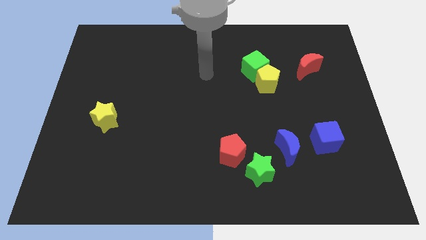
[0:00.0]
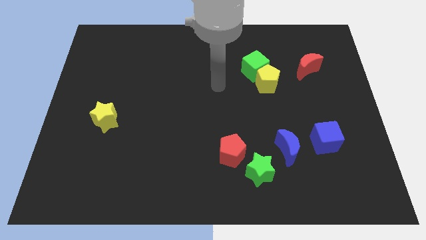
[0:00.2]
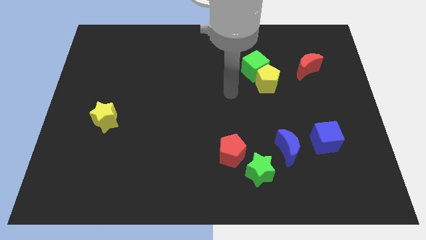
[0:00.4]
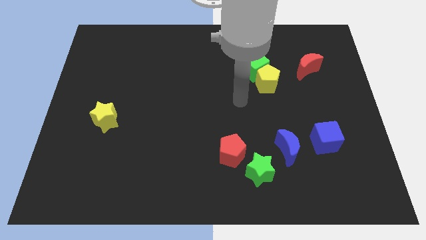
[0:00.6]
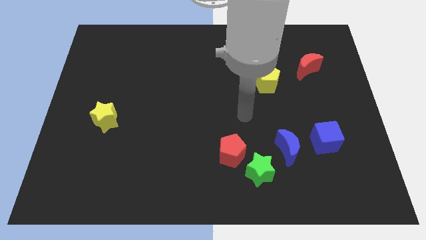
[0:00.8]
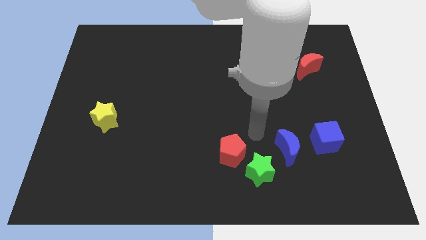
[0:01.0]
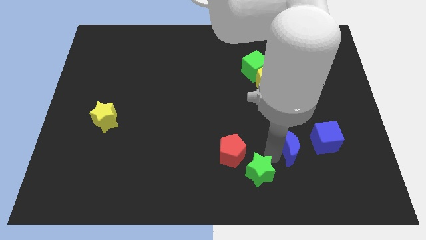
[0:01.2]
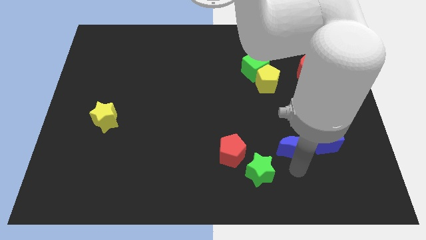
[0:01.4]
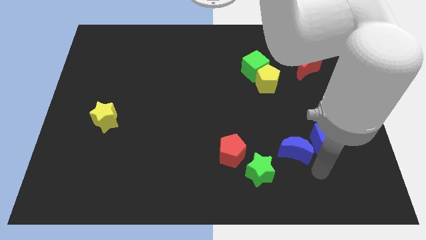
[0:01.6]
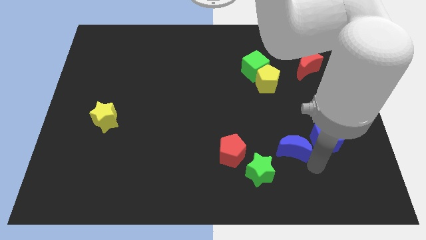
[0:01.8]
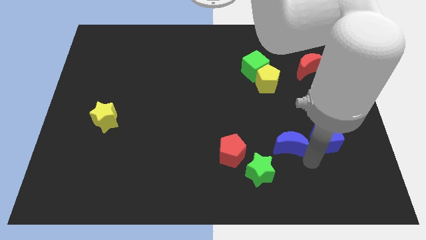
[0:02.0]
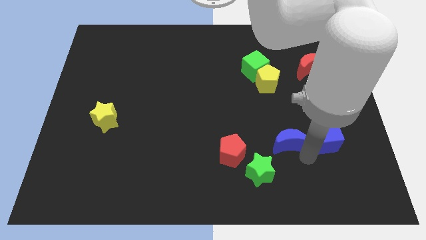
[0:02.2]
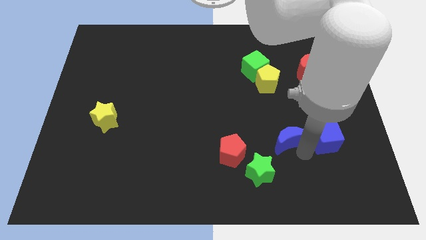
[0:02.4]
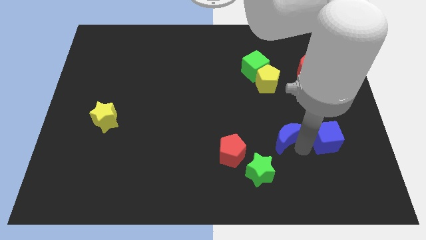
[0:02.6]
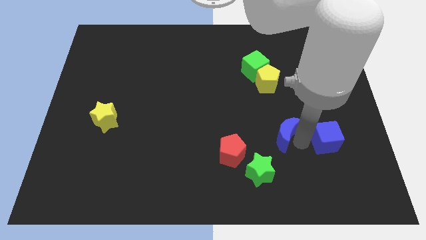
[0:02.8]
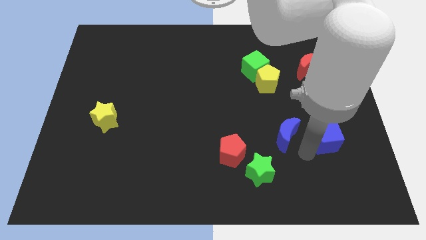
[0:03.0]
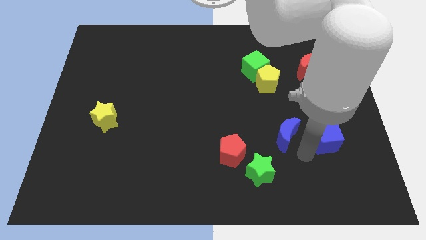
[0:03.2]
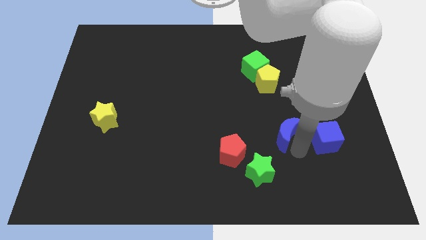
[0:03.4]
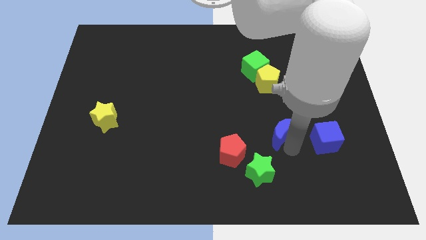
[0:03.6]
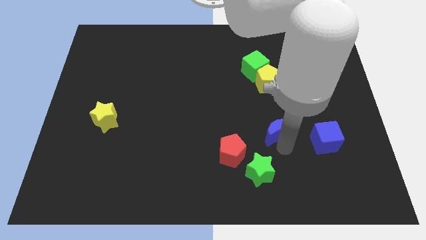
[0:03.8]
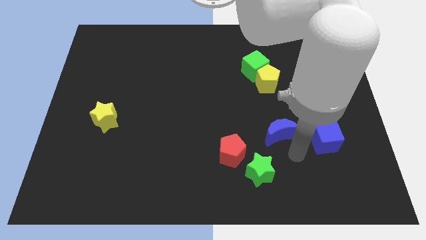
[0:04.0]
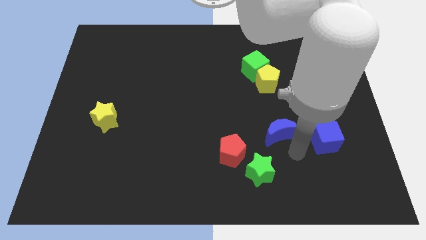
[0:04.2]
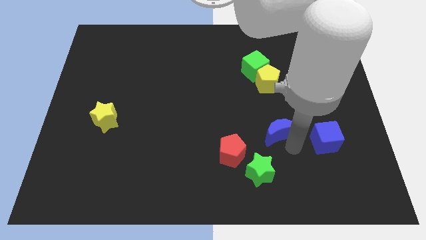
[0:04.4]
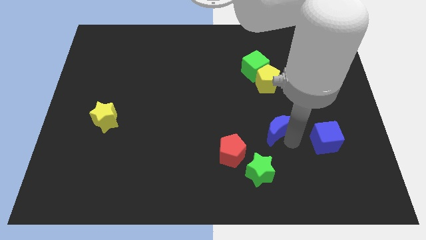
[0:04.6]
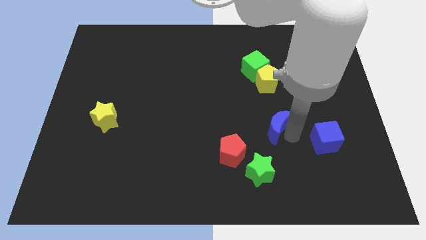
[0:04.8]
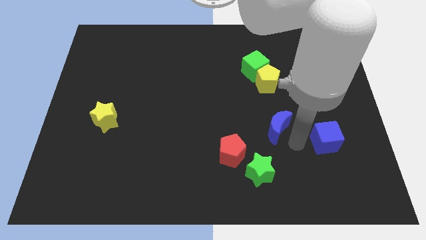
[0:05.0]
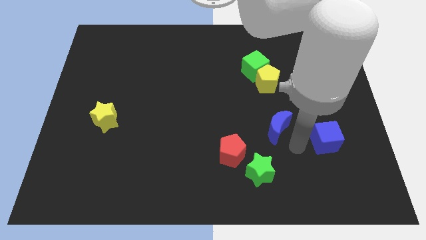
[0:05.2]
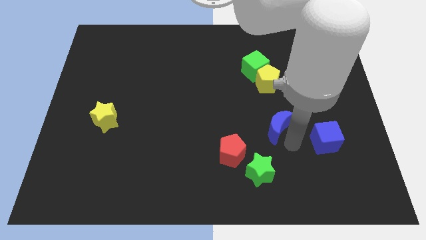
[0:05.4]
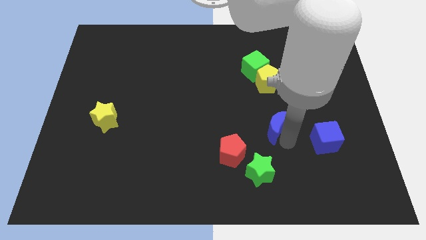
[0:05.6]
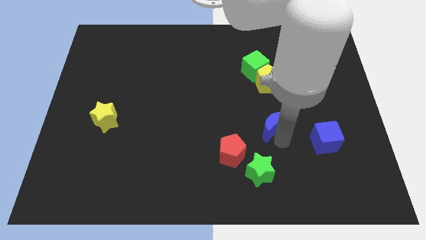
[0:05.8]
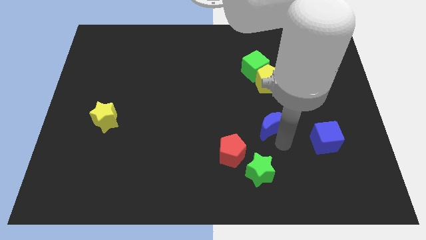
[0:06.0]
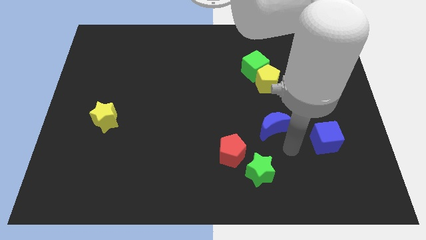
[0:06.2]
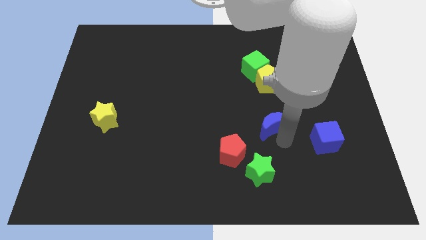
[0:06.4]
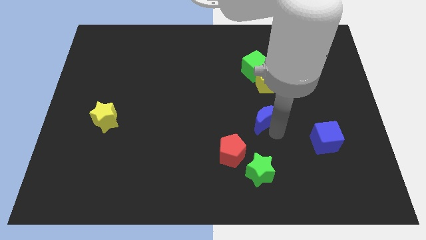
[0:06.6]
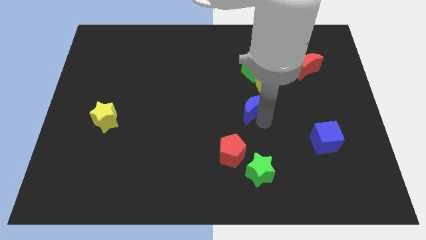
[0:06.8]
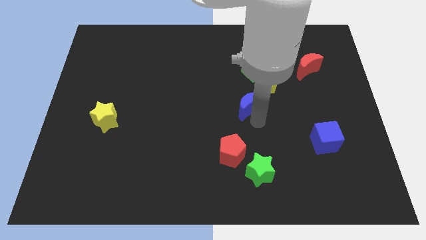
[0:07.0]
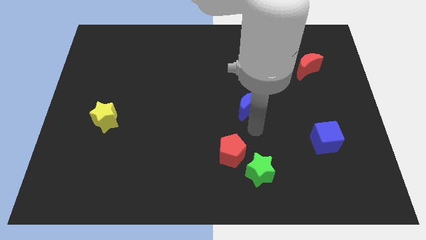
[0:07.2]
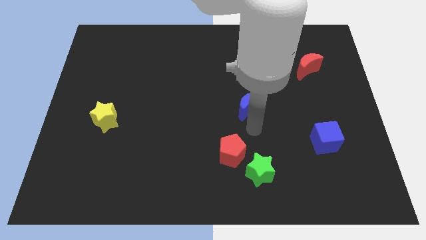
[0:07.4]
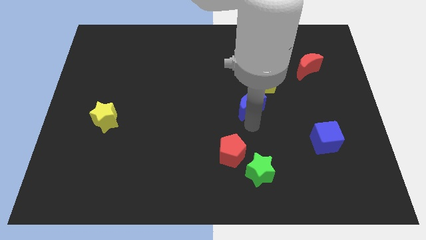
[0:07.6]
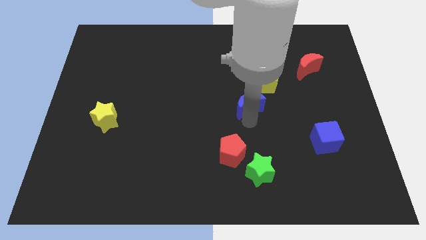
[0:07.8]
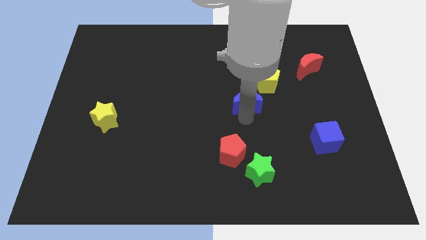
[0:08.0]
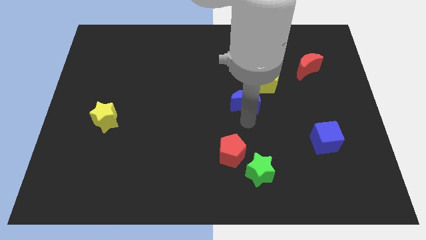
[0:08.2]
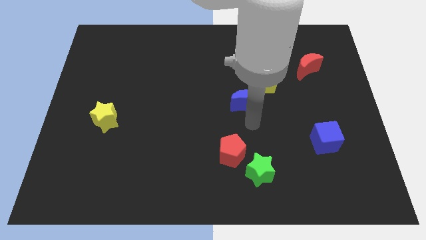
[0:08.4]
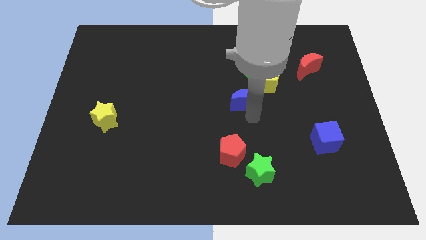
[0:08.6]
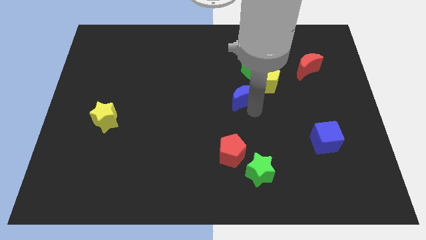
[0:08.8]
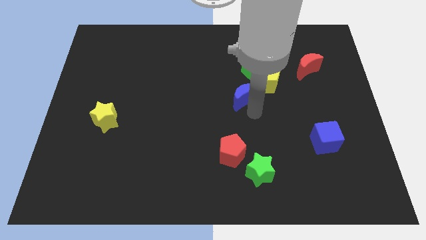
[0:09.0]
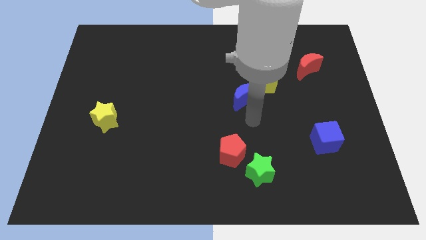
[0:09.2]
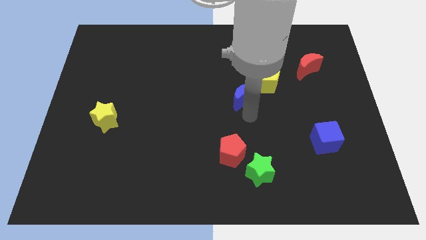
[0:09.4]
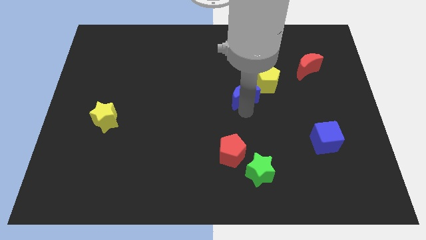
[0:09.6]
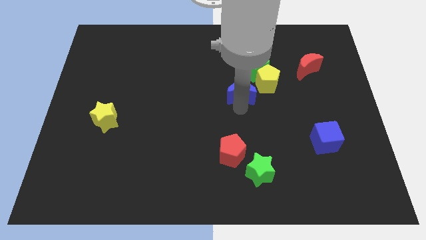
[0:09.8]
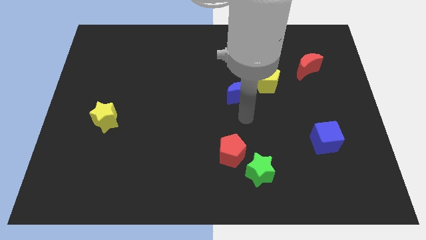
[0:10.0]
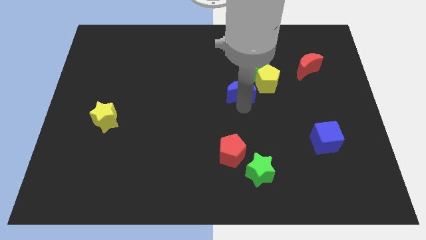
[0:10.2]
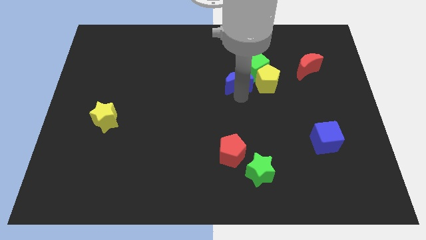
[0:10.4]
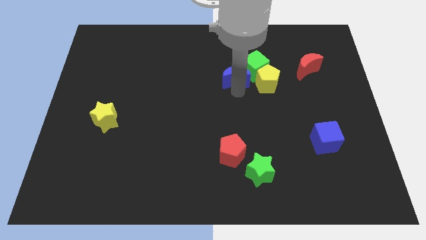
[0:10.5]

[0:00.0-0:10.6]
slide the blue moon to the top left side of the yellow pentagon

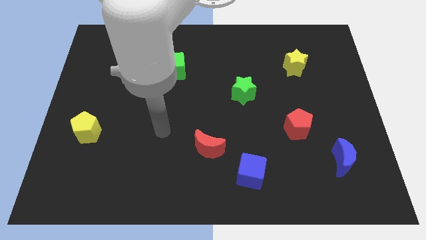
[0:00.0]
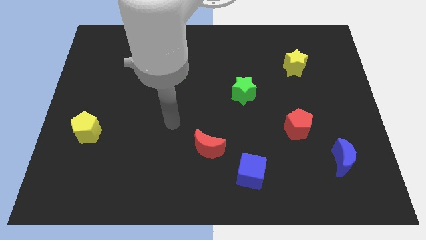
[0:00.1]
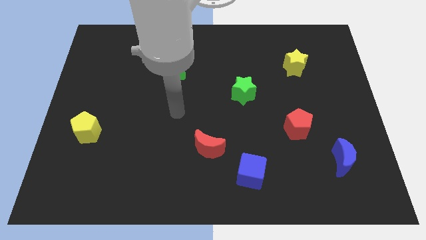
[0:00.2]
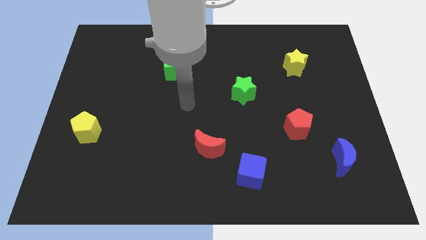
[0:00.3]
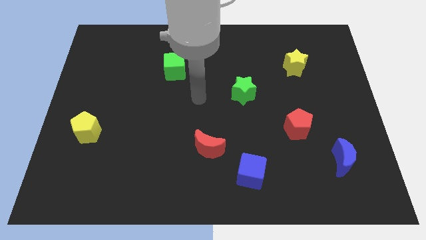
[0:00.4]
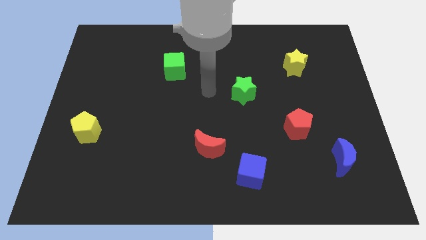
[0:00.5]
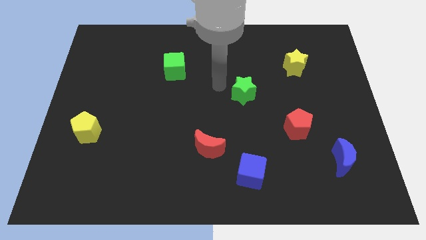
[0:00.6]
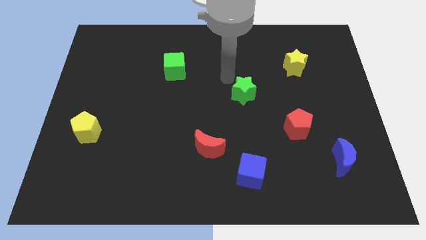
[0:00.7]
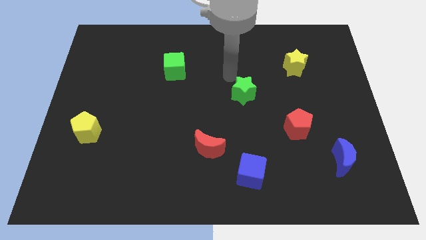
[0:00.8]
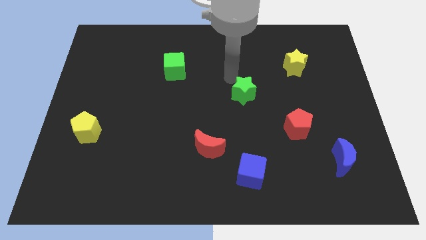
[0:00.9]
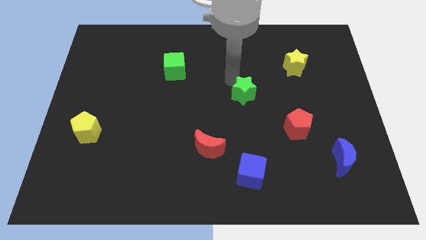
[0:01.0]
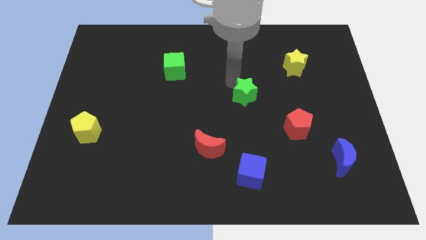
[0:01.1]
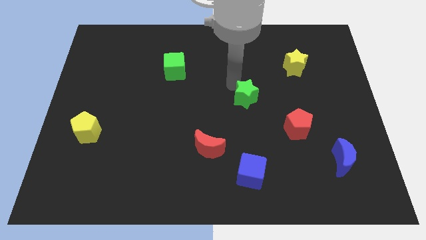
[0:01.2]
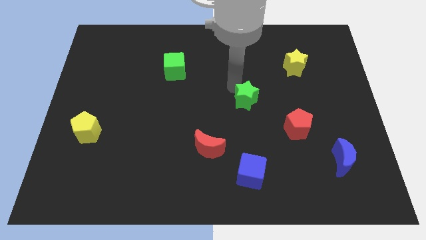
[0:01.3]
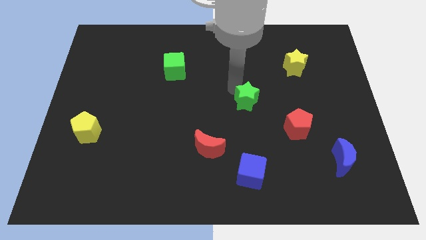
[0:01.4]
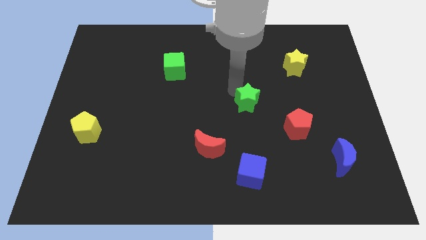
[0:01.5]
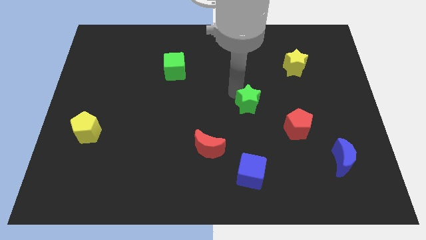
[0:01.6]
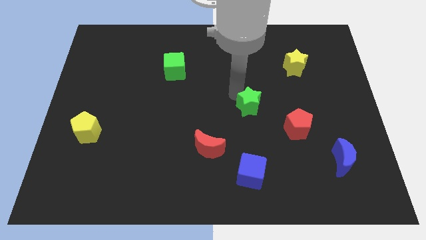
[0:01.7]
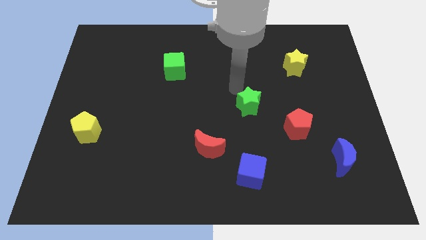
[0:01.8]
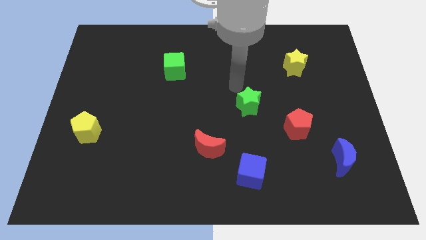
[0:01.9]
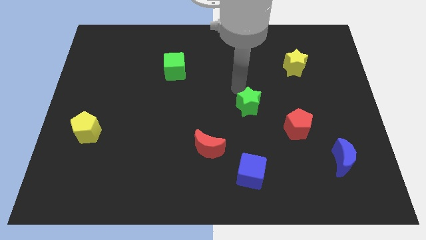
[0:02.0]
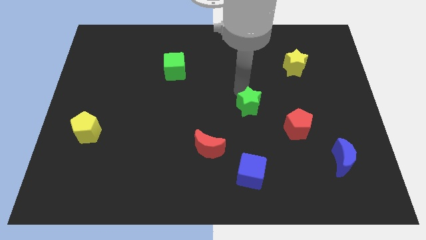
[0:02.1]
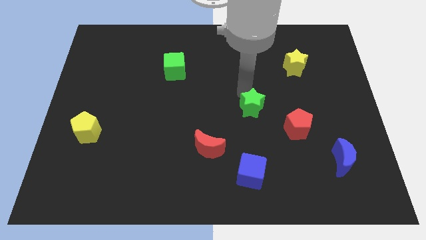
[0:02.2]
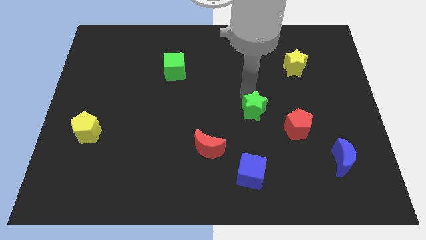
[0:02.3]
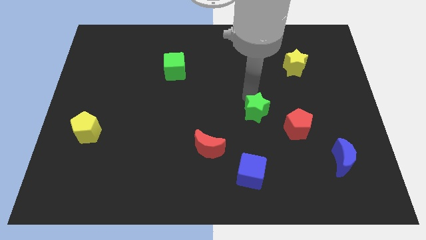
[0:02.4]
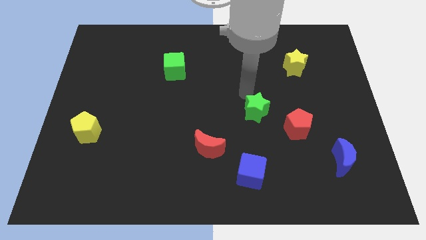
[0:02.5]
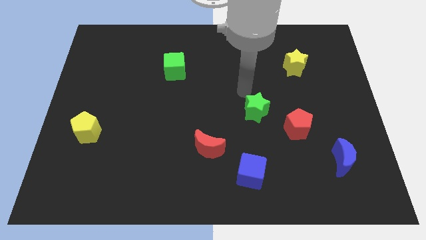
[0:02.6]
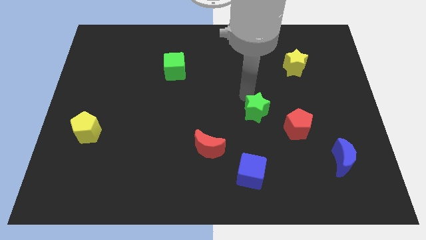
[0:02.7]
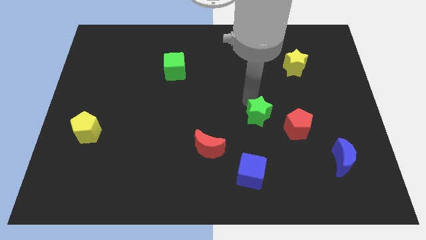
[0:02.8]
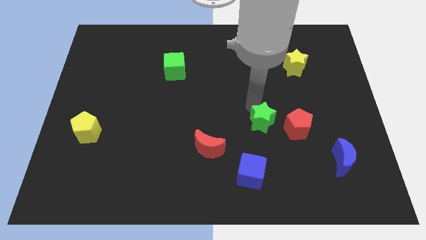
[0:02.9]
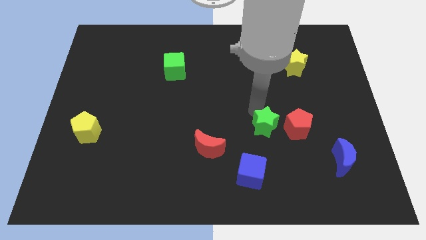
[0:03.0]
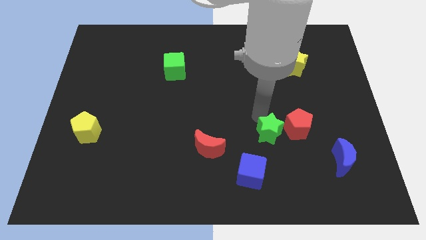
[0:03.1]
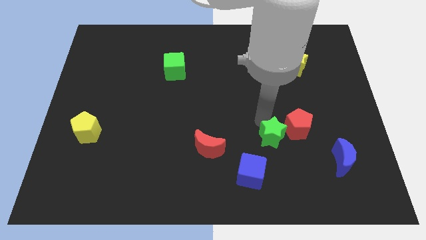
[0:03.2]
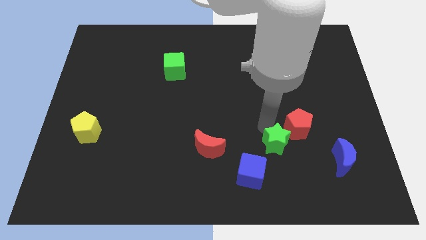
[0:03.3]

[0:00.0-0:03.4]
slide the green star just left of the blue moon
